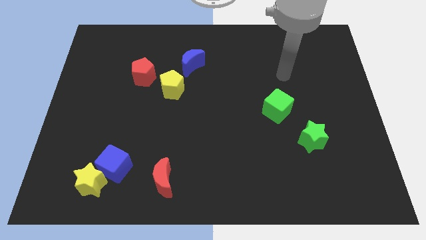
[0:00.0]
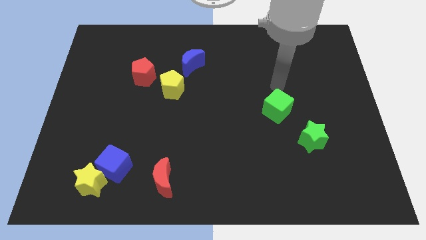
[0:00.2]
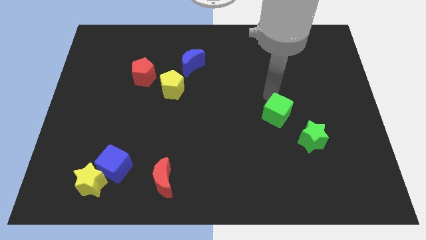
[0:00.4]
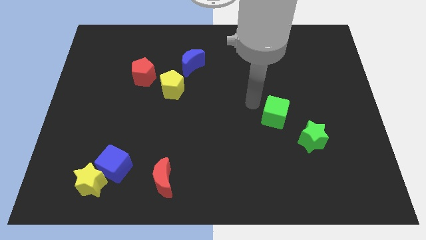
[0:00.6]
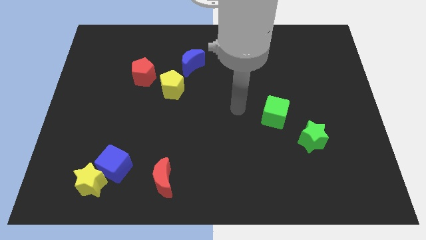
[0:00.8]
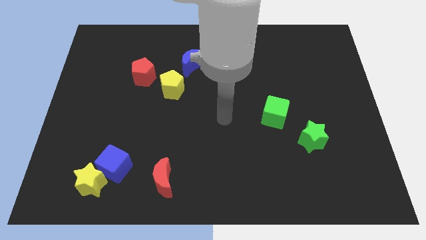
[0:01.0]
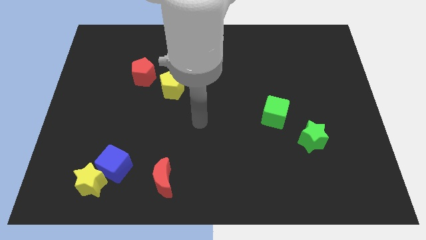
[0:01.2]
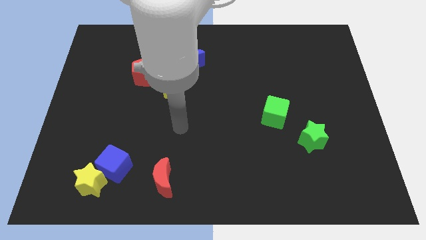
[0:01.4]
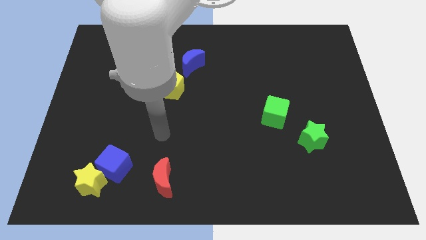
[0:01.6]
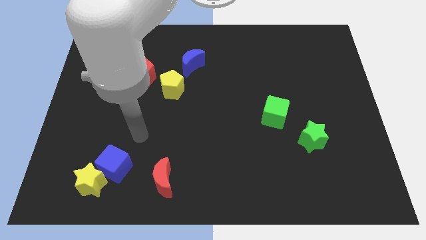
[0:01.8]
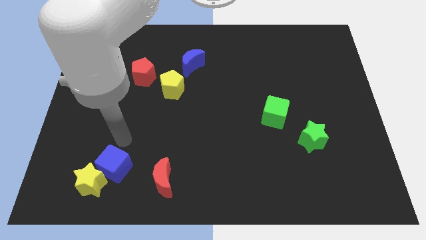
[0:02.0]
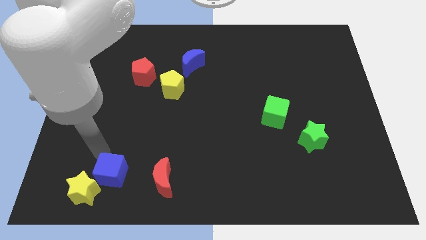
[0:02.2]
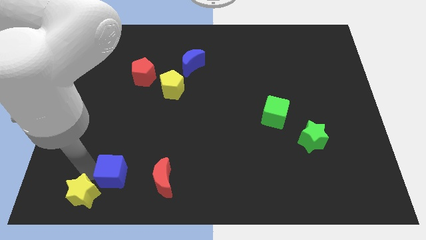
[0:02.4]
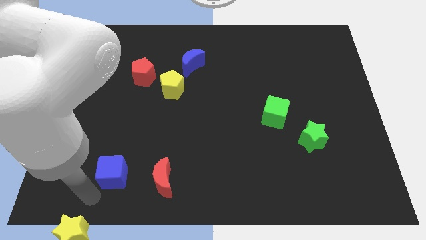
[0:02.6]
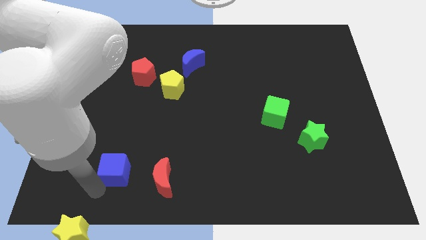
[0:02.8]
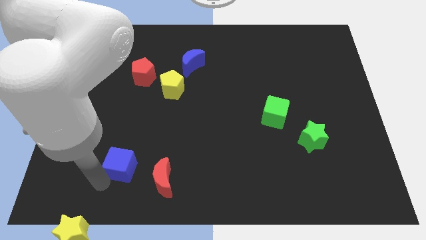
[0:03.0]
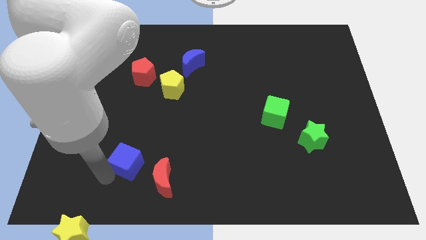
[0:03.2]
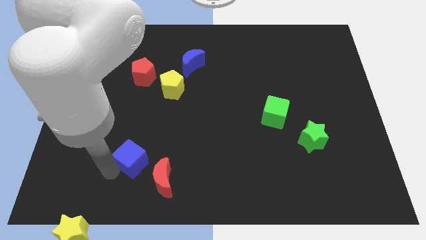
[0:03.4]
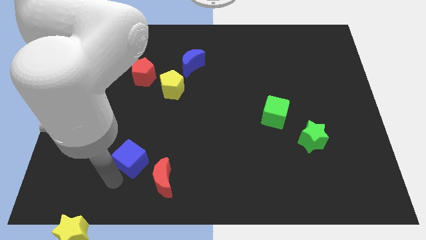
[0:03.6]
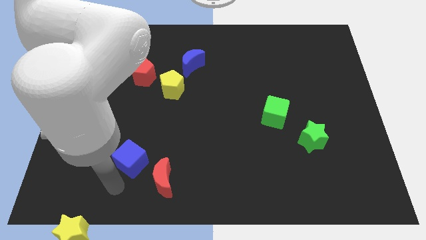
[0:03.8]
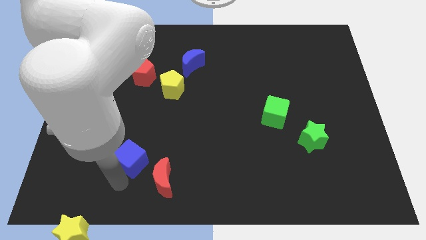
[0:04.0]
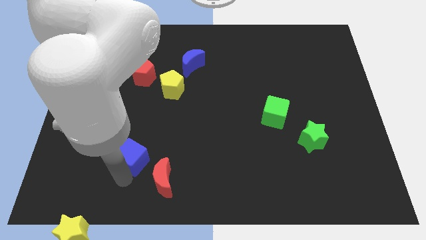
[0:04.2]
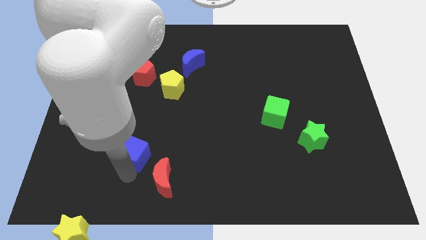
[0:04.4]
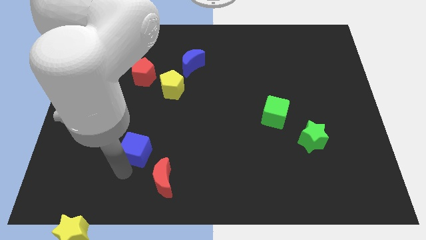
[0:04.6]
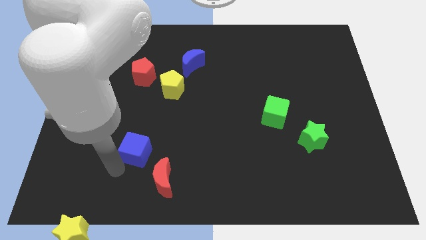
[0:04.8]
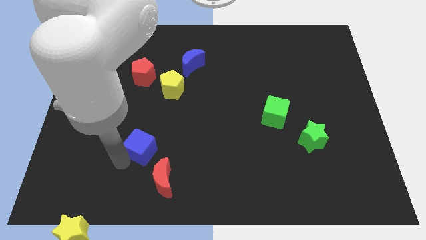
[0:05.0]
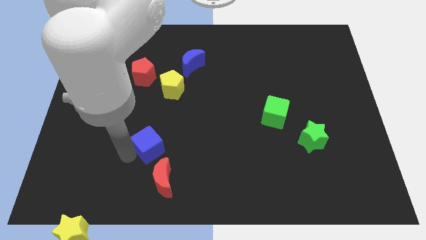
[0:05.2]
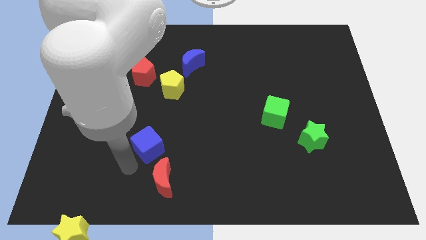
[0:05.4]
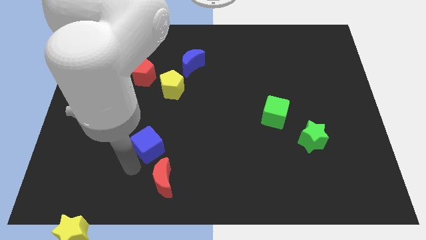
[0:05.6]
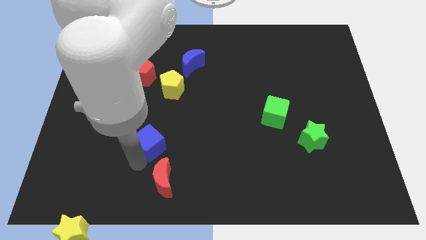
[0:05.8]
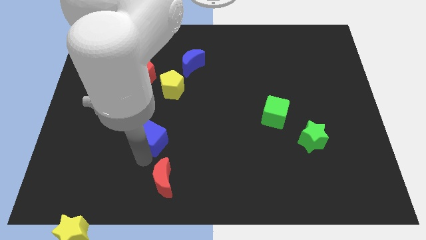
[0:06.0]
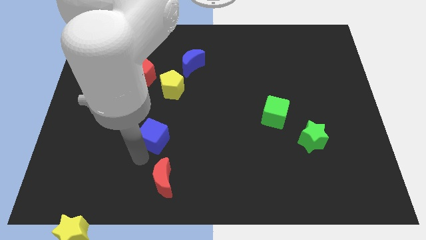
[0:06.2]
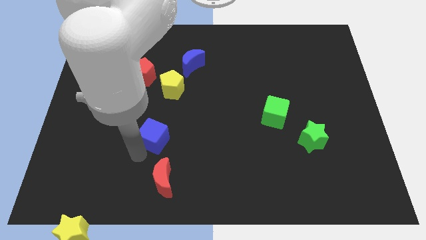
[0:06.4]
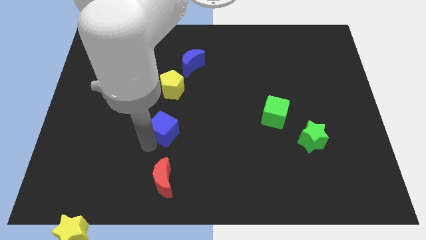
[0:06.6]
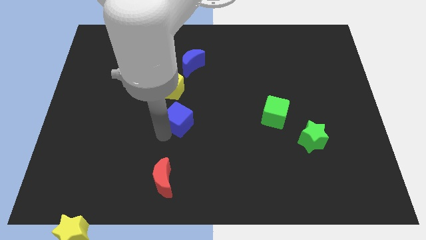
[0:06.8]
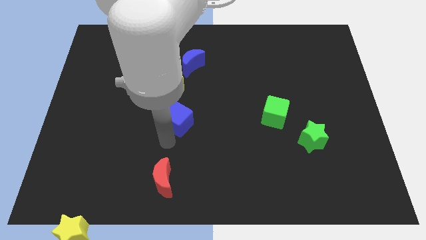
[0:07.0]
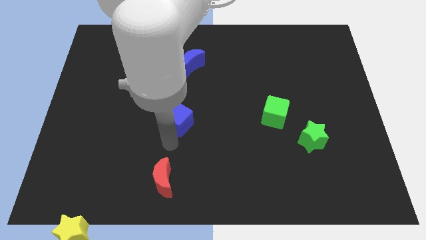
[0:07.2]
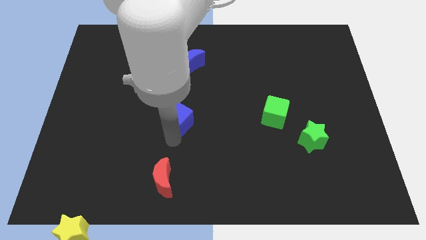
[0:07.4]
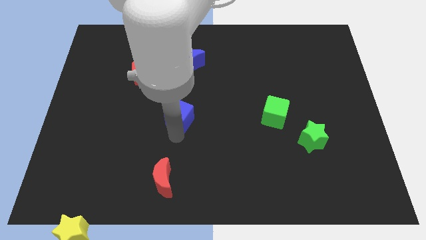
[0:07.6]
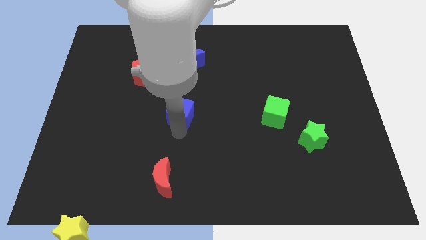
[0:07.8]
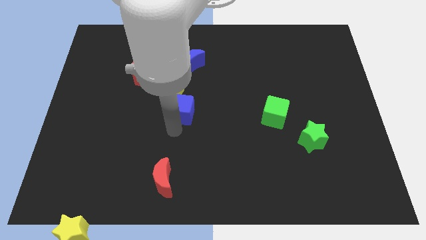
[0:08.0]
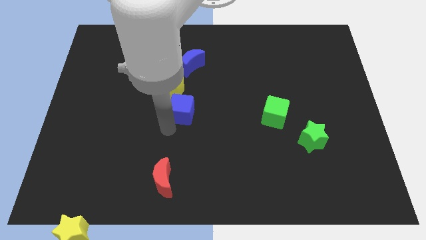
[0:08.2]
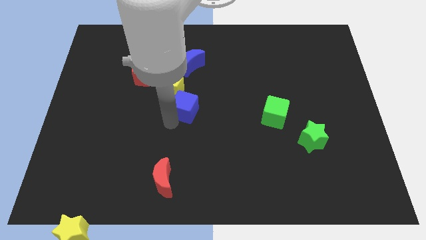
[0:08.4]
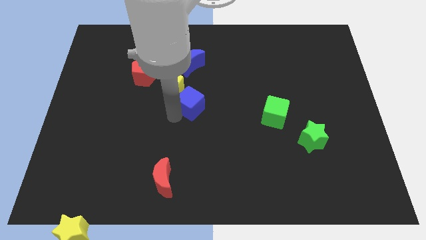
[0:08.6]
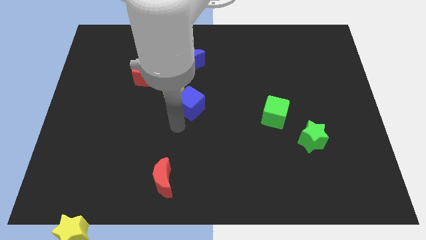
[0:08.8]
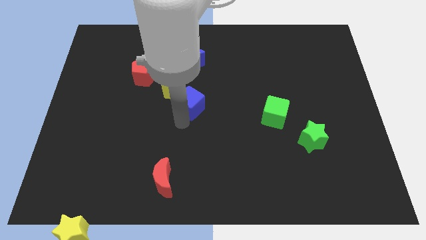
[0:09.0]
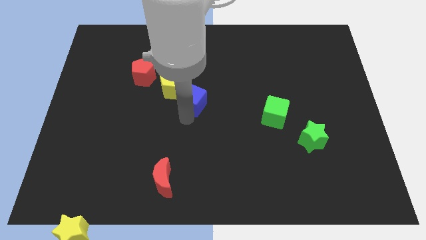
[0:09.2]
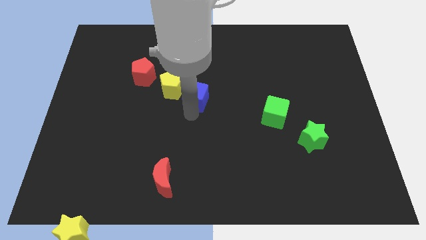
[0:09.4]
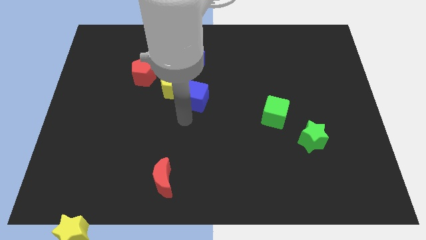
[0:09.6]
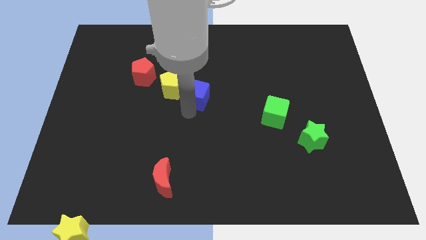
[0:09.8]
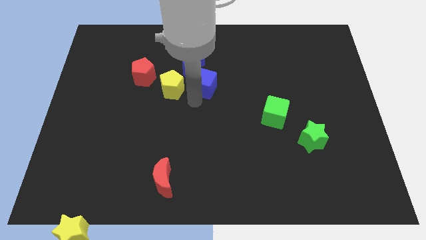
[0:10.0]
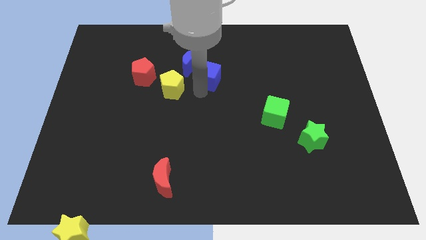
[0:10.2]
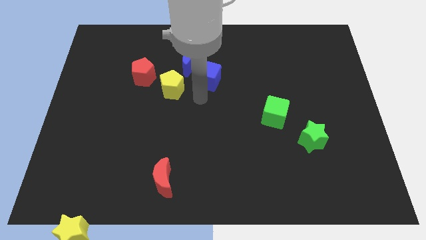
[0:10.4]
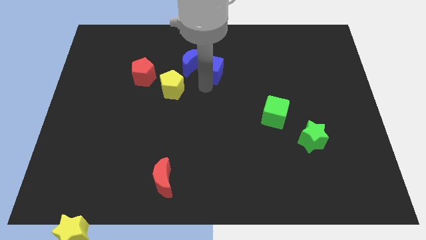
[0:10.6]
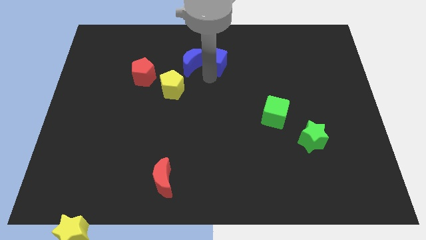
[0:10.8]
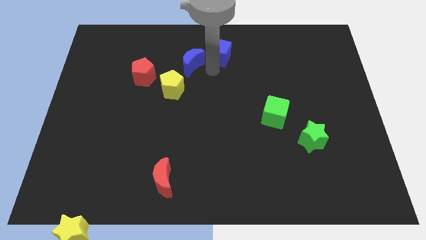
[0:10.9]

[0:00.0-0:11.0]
put the blue cube to the top side

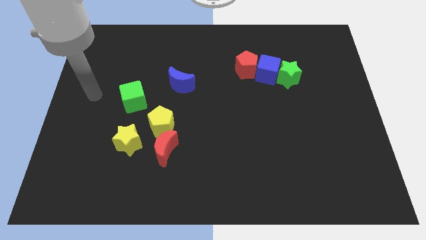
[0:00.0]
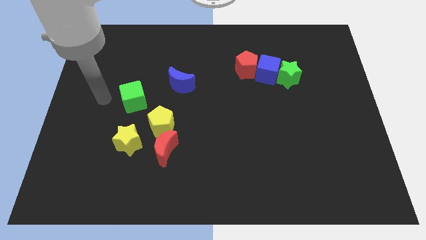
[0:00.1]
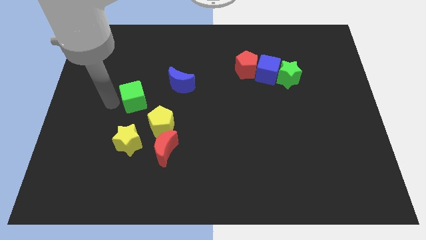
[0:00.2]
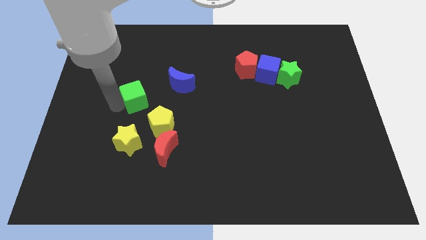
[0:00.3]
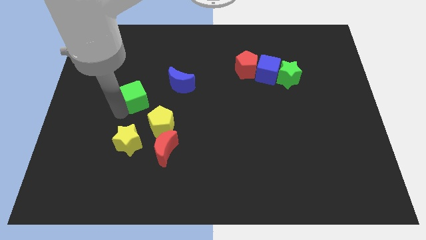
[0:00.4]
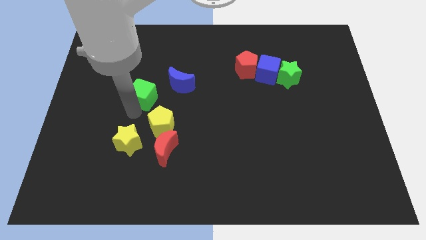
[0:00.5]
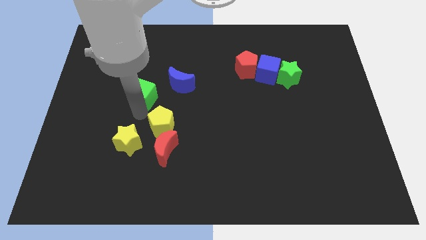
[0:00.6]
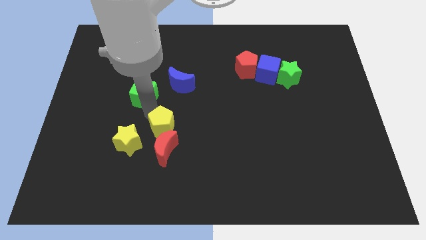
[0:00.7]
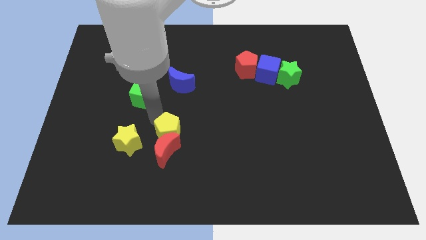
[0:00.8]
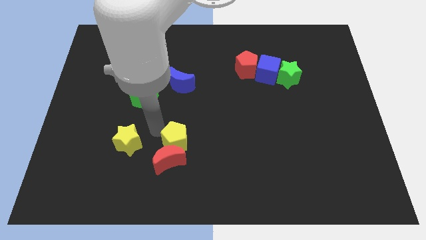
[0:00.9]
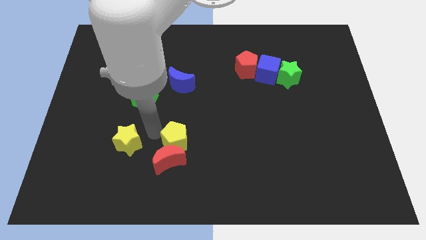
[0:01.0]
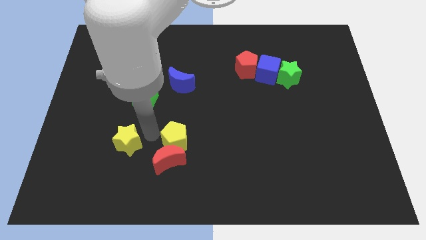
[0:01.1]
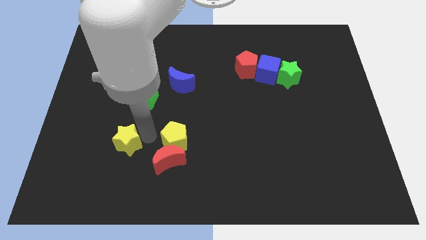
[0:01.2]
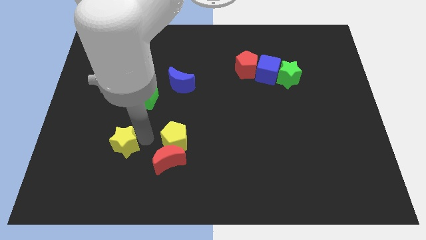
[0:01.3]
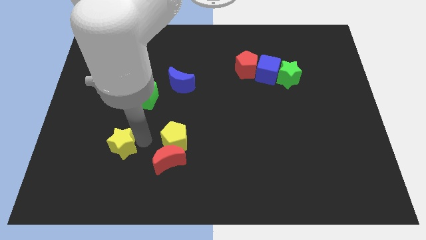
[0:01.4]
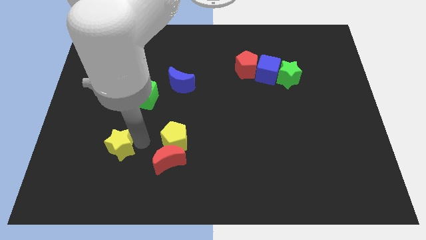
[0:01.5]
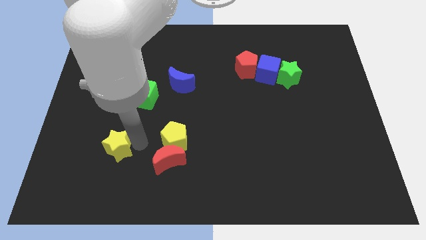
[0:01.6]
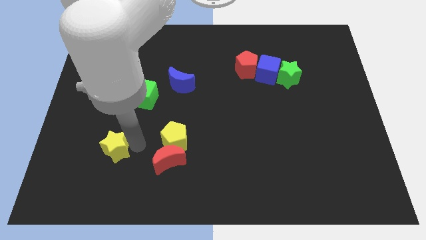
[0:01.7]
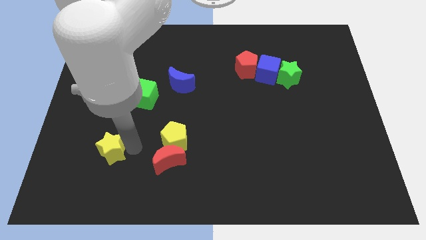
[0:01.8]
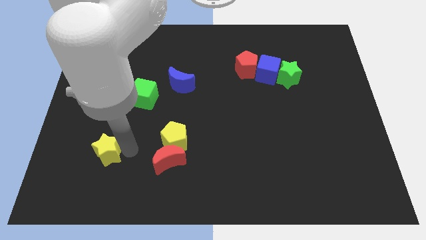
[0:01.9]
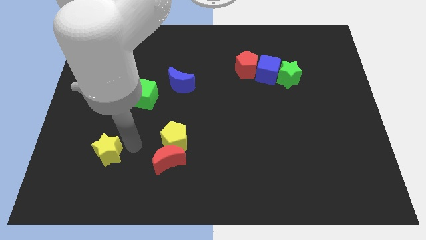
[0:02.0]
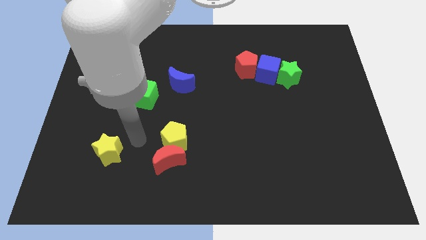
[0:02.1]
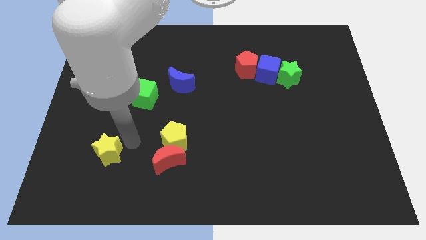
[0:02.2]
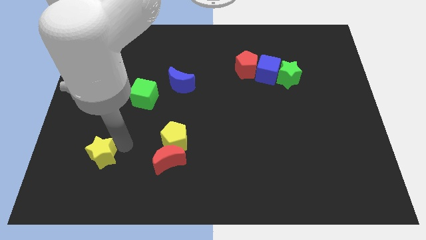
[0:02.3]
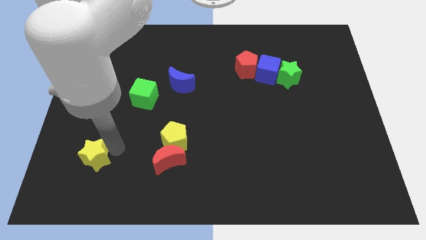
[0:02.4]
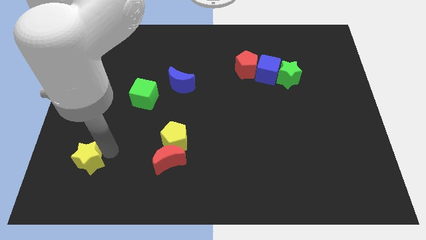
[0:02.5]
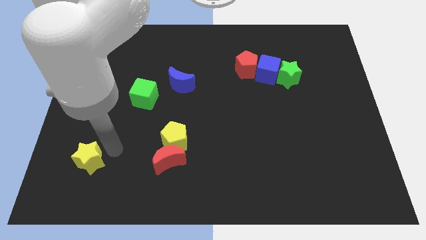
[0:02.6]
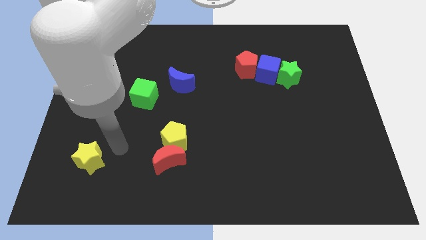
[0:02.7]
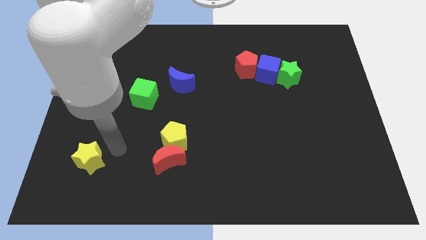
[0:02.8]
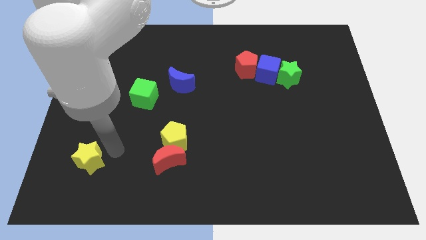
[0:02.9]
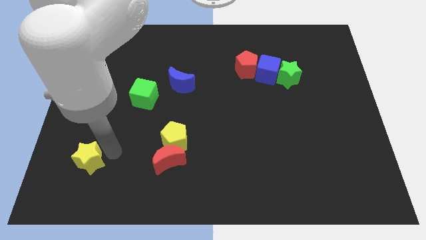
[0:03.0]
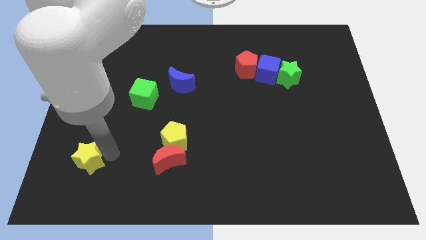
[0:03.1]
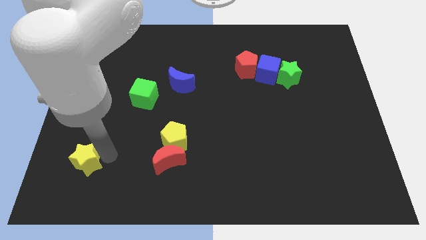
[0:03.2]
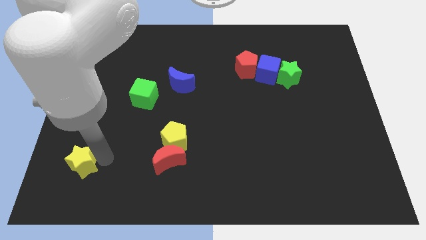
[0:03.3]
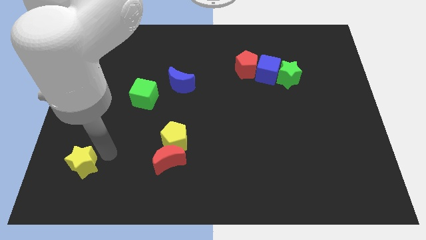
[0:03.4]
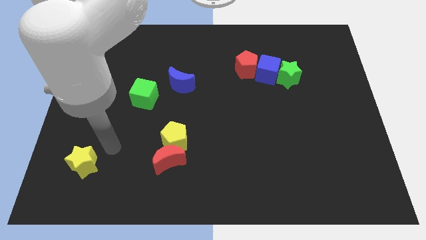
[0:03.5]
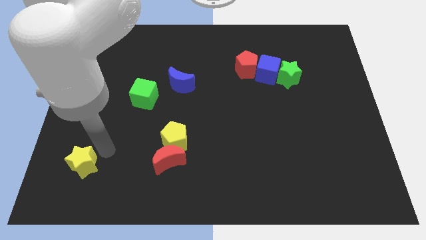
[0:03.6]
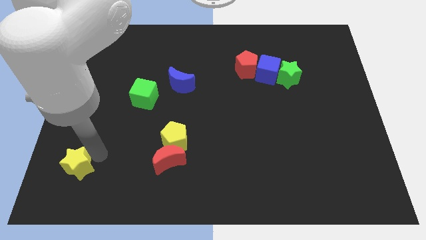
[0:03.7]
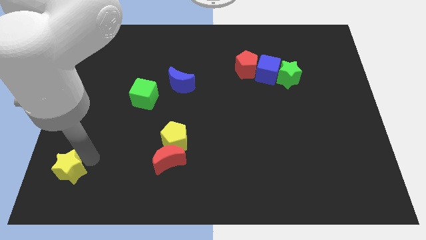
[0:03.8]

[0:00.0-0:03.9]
slide the yellow star to the bottom left
